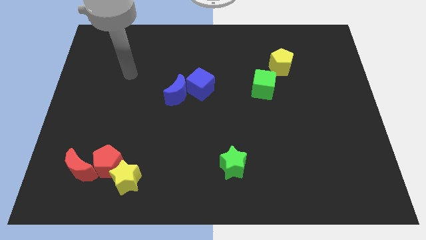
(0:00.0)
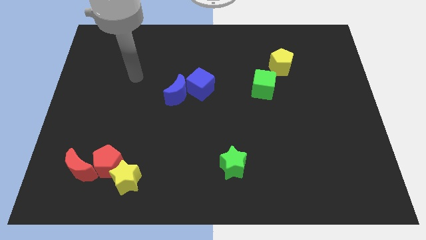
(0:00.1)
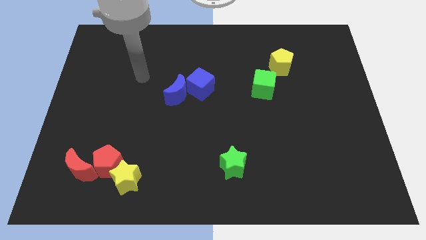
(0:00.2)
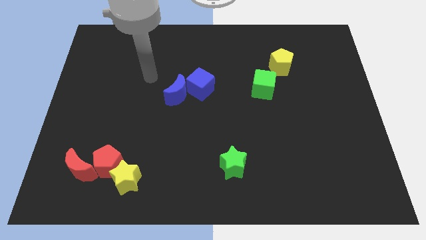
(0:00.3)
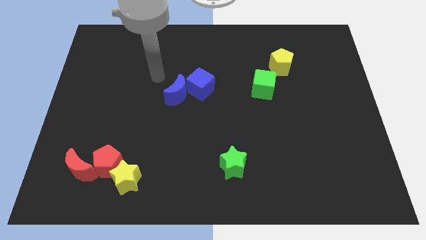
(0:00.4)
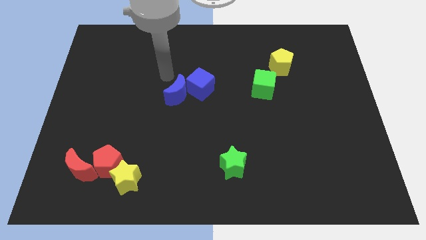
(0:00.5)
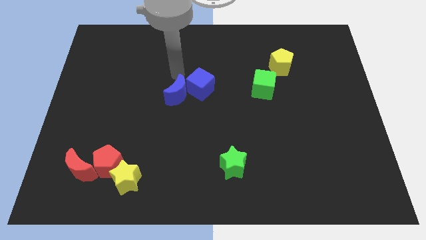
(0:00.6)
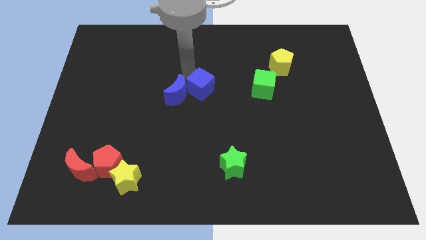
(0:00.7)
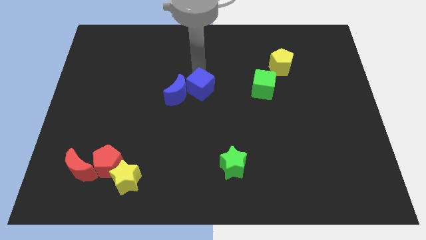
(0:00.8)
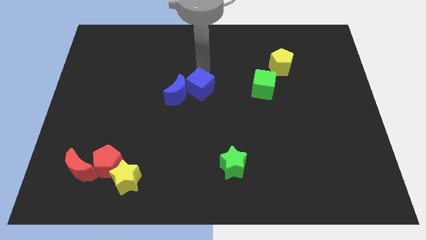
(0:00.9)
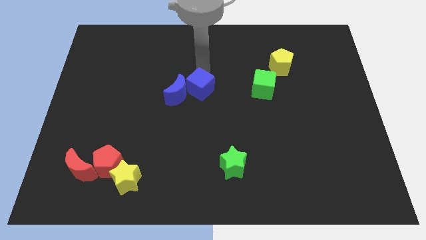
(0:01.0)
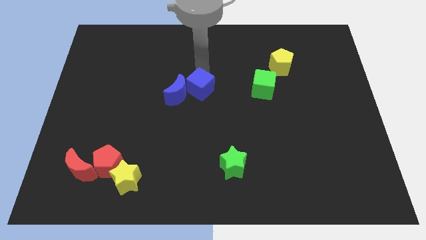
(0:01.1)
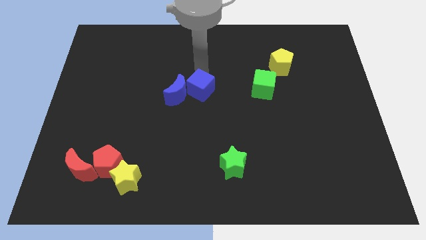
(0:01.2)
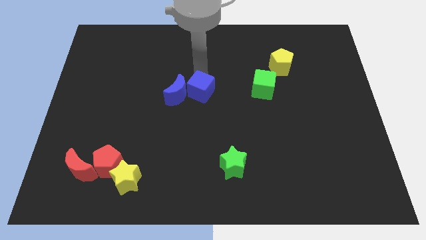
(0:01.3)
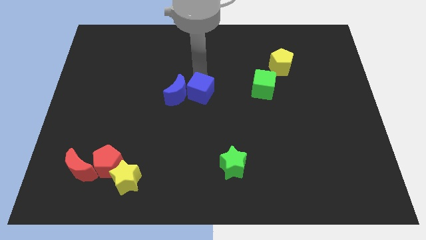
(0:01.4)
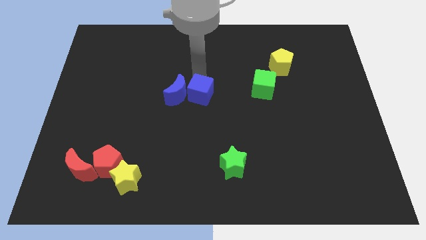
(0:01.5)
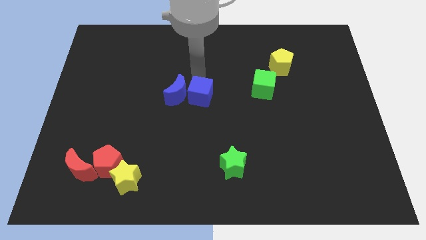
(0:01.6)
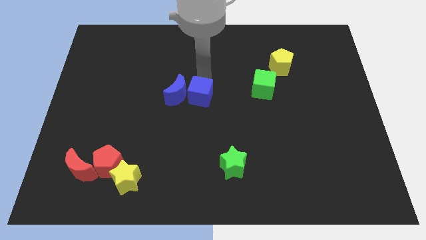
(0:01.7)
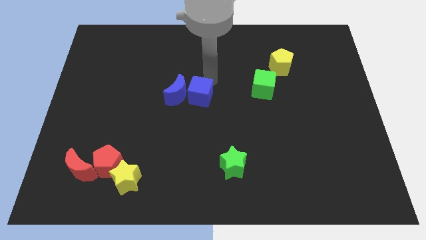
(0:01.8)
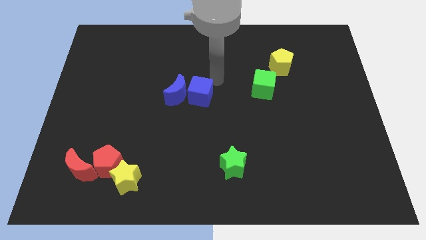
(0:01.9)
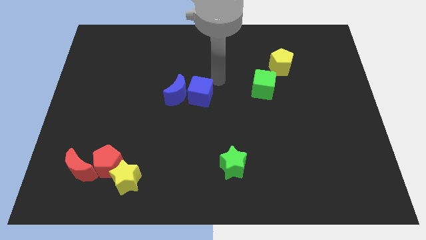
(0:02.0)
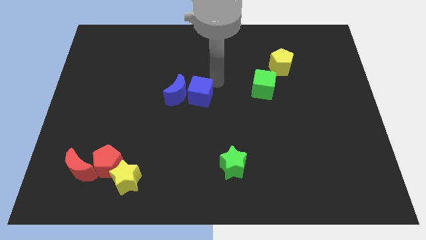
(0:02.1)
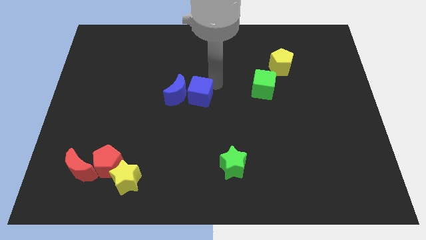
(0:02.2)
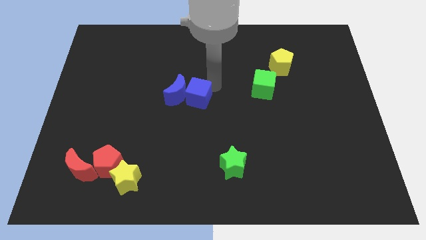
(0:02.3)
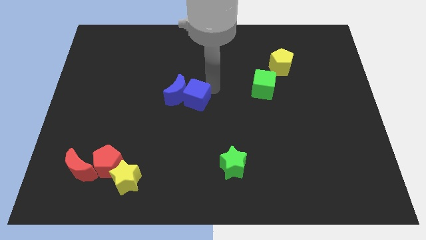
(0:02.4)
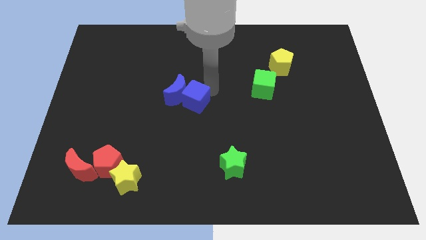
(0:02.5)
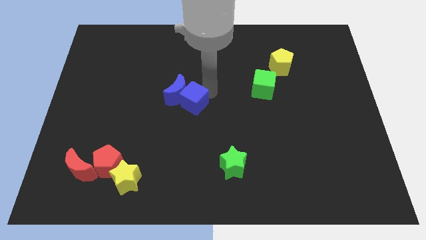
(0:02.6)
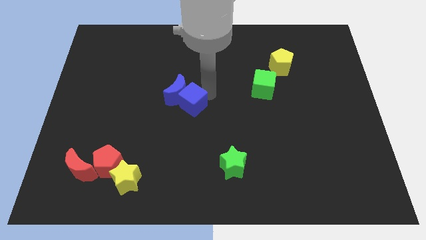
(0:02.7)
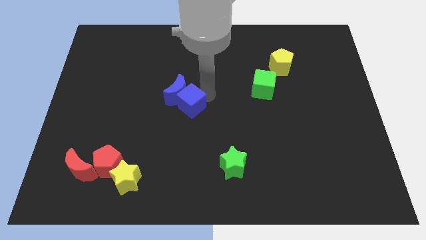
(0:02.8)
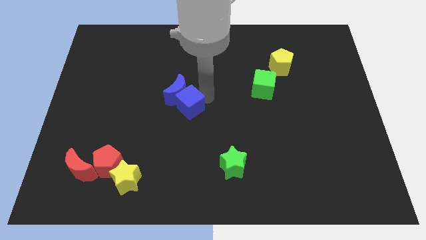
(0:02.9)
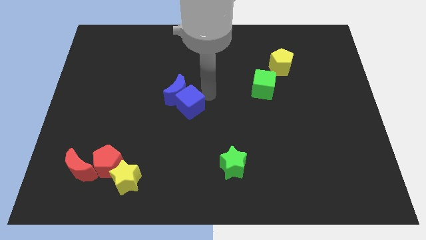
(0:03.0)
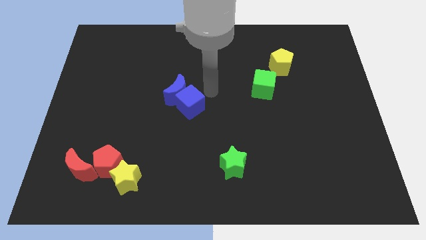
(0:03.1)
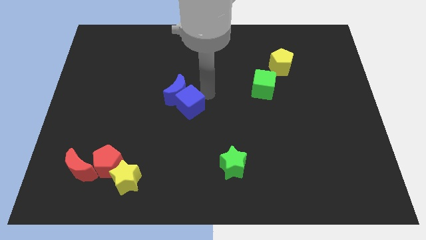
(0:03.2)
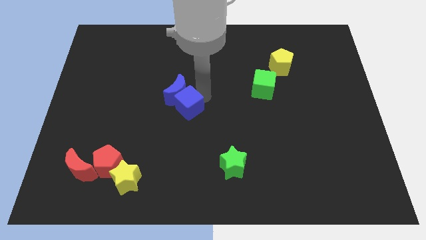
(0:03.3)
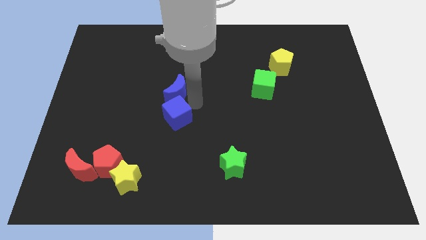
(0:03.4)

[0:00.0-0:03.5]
slightly slide the blue cube down and left diagonally

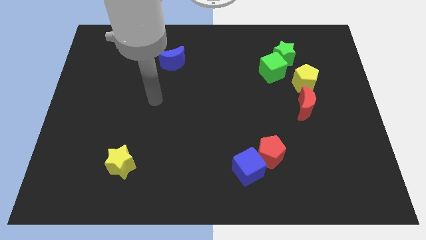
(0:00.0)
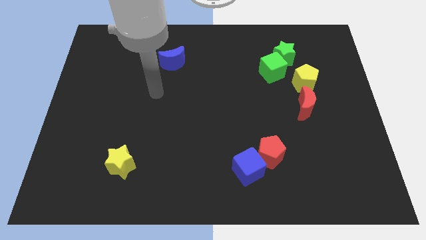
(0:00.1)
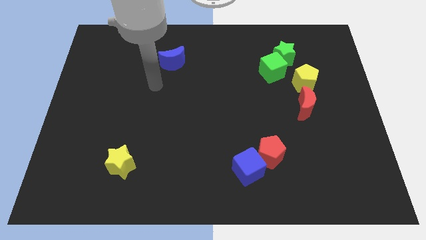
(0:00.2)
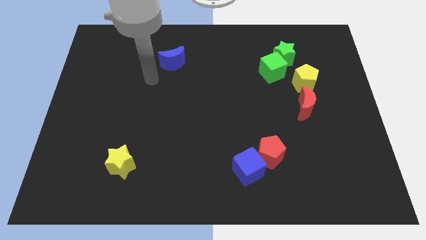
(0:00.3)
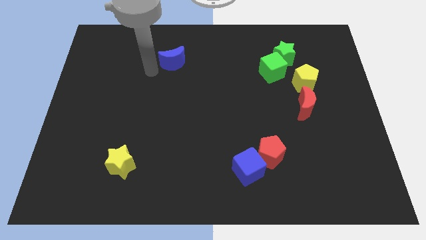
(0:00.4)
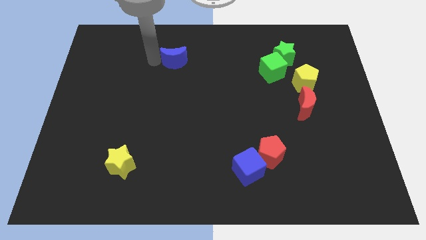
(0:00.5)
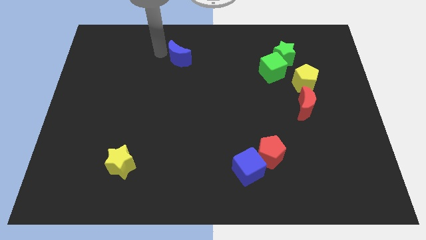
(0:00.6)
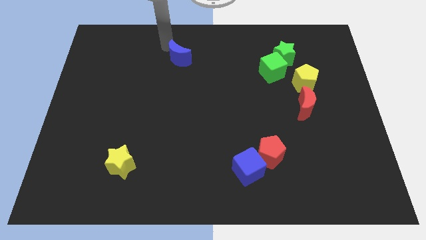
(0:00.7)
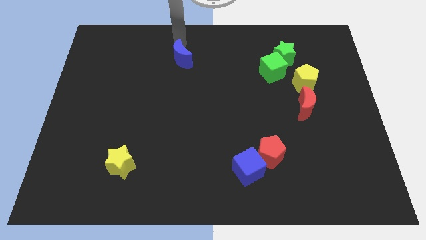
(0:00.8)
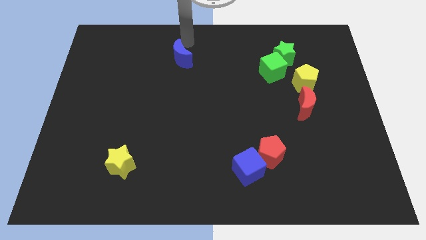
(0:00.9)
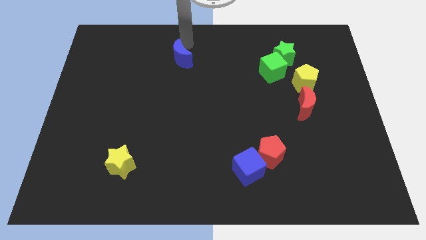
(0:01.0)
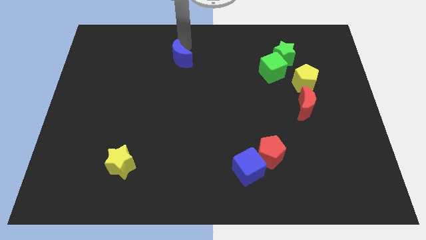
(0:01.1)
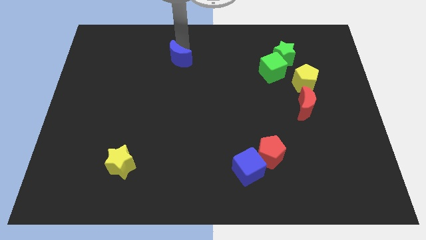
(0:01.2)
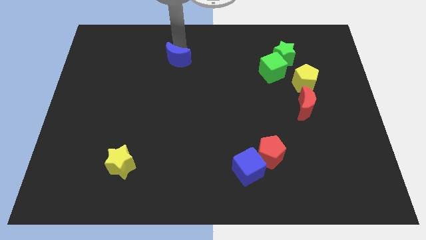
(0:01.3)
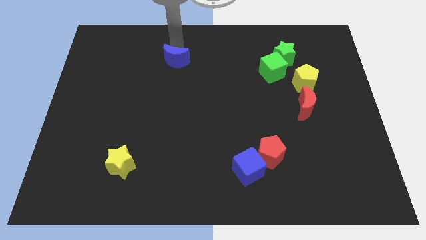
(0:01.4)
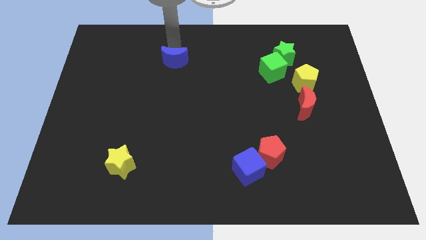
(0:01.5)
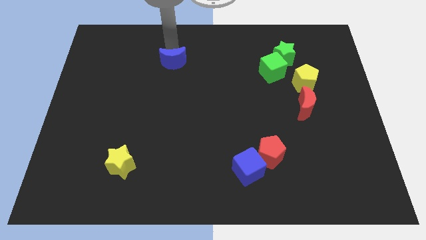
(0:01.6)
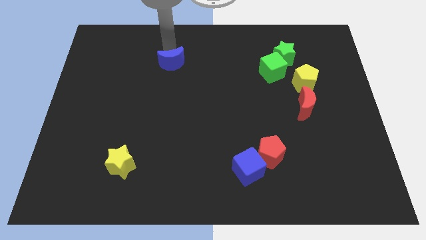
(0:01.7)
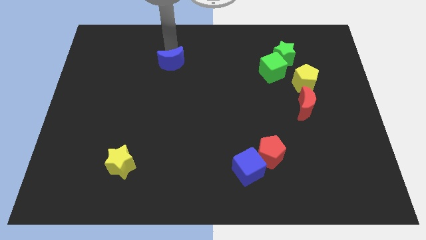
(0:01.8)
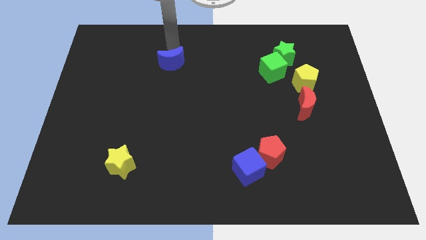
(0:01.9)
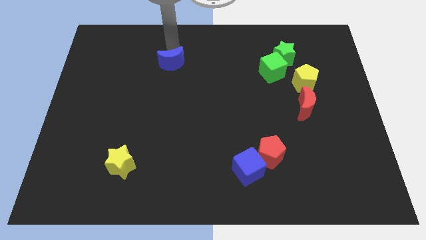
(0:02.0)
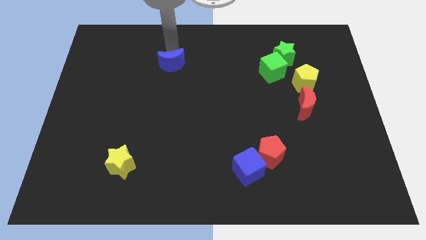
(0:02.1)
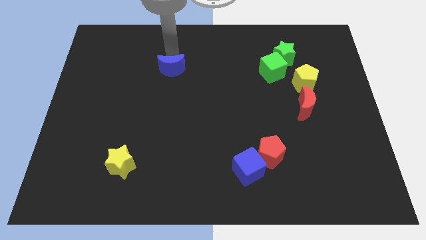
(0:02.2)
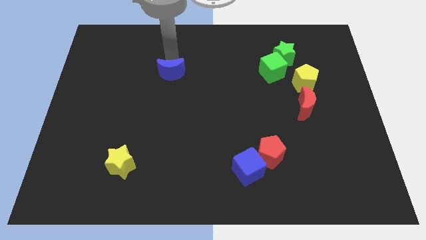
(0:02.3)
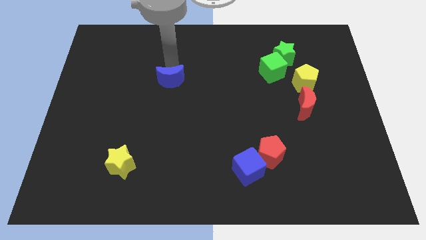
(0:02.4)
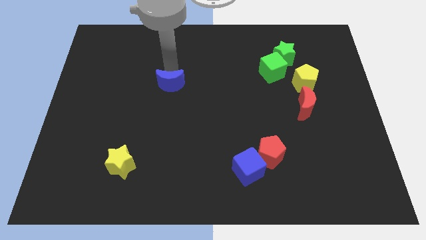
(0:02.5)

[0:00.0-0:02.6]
slightly slide the blue moon down

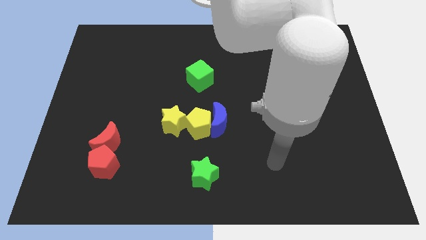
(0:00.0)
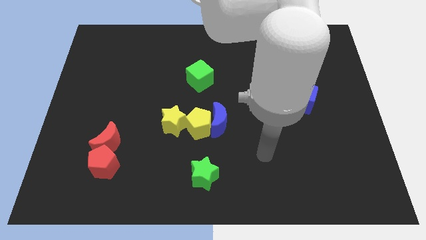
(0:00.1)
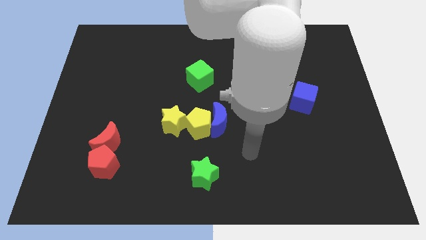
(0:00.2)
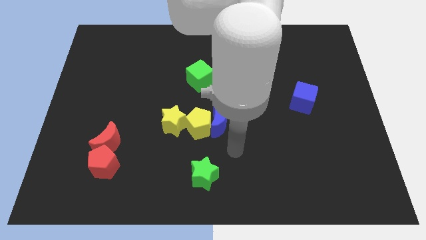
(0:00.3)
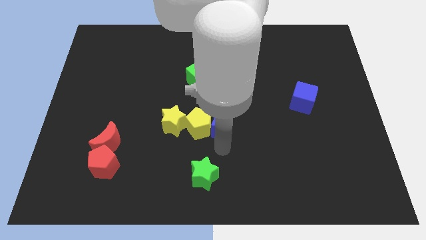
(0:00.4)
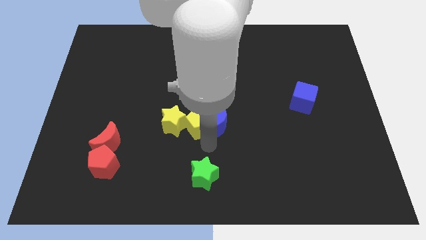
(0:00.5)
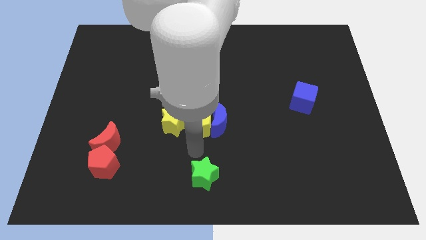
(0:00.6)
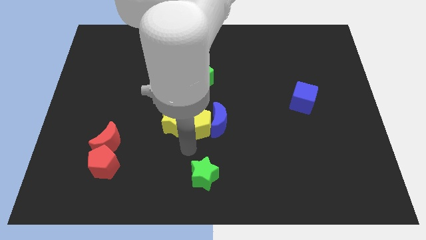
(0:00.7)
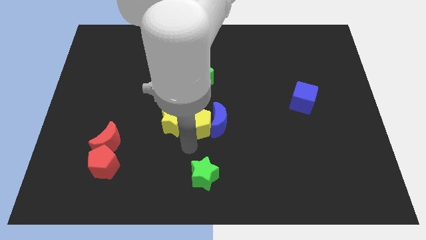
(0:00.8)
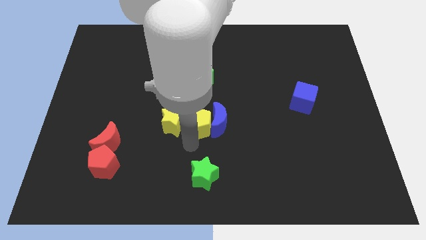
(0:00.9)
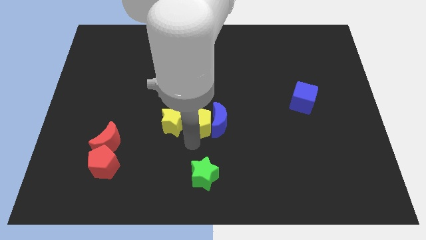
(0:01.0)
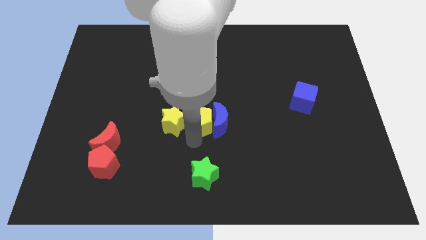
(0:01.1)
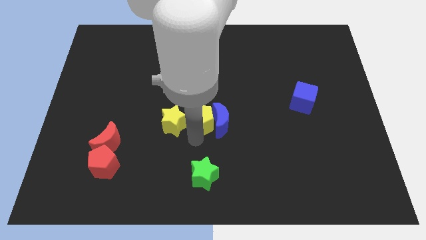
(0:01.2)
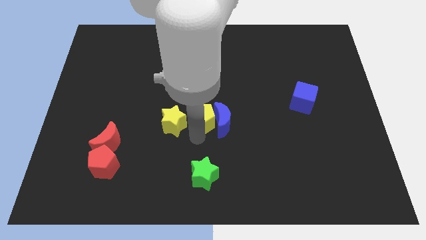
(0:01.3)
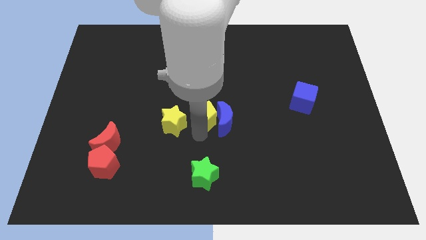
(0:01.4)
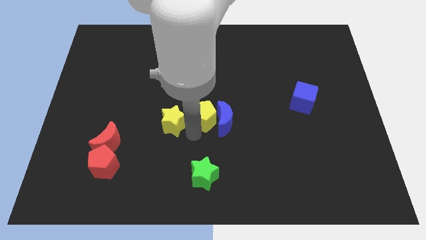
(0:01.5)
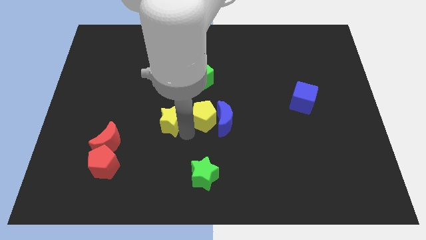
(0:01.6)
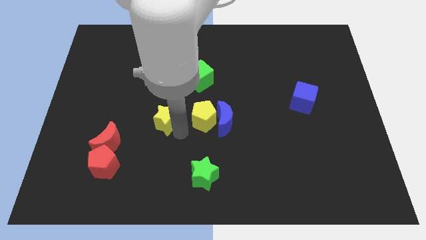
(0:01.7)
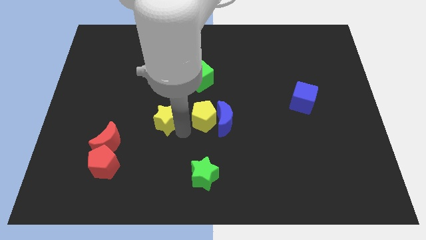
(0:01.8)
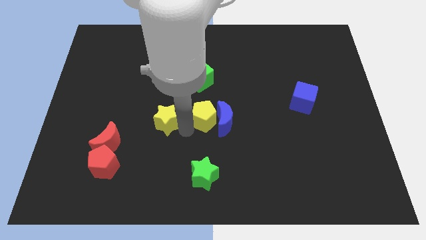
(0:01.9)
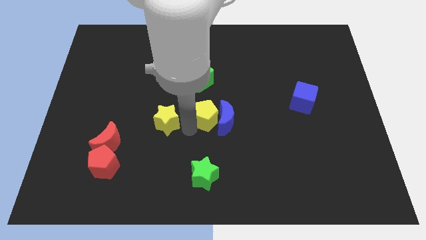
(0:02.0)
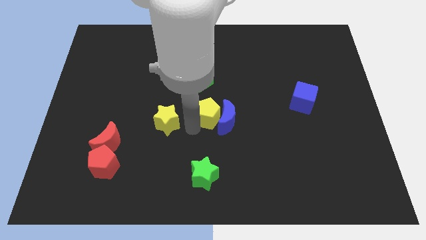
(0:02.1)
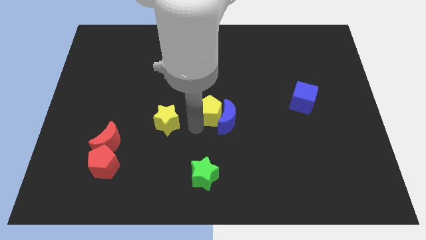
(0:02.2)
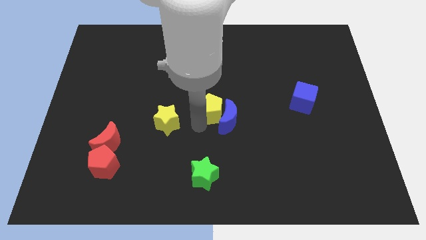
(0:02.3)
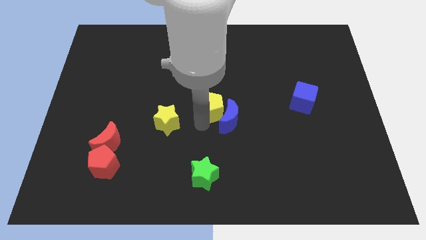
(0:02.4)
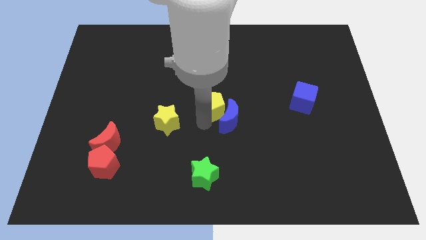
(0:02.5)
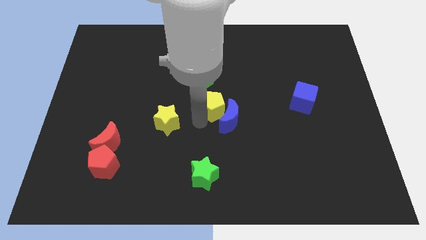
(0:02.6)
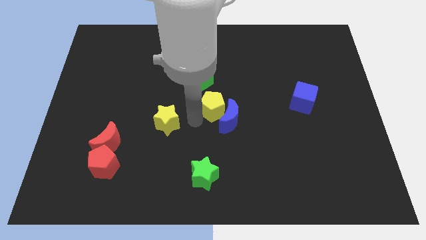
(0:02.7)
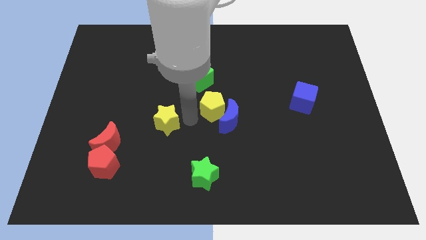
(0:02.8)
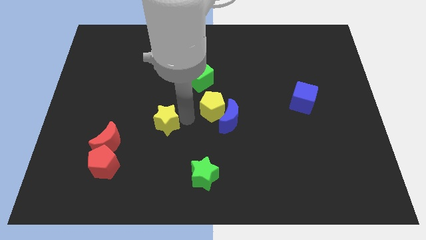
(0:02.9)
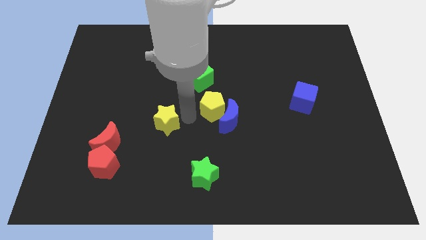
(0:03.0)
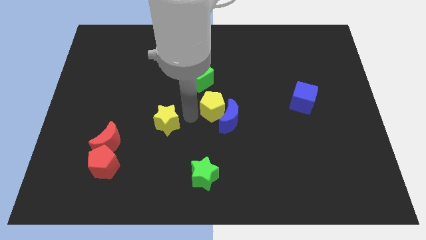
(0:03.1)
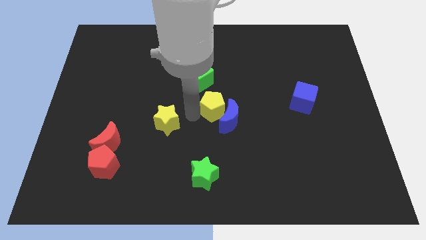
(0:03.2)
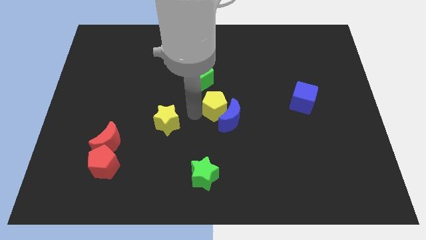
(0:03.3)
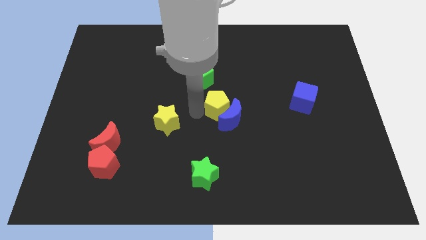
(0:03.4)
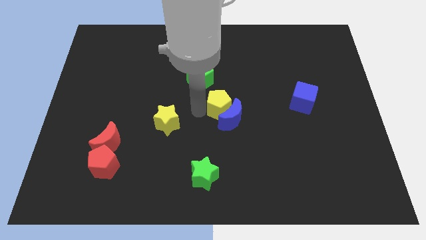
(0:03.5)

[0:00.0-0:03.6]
slightly push the yellow pentagon diagonally up and right
